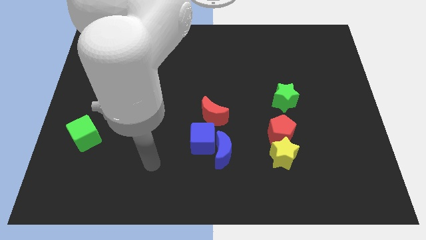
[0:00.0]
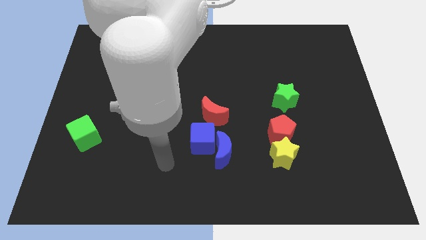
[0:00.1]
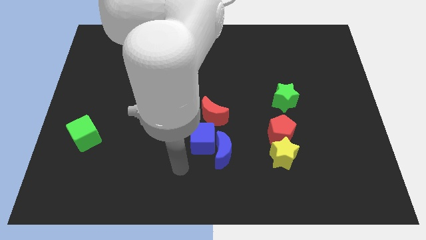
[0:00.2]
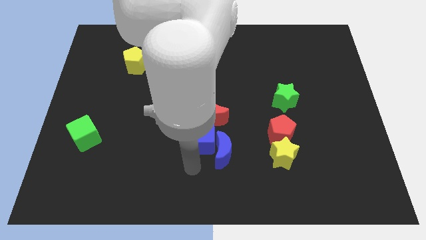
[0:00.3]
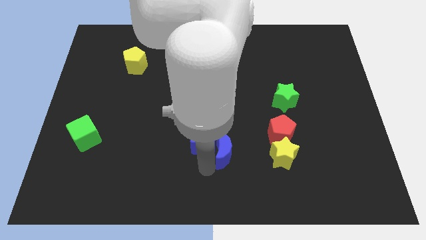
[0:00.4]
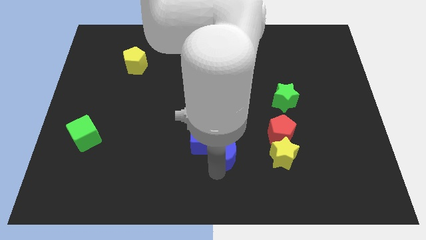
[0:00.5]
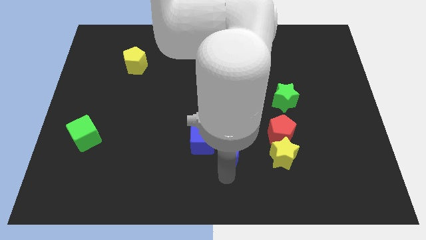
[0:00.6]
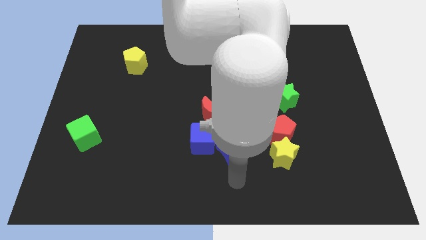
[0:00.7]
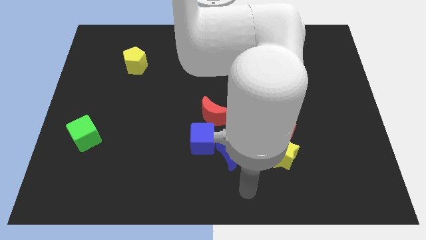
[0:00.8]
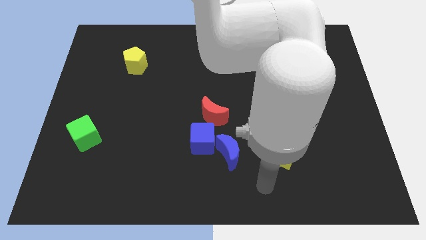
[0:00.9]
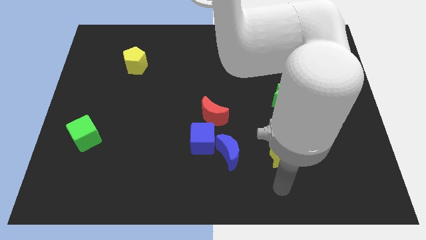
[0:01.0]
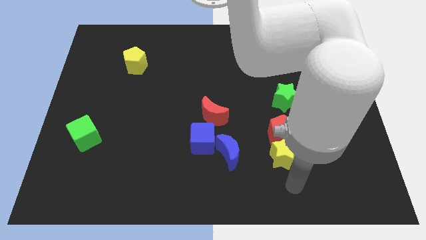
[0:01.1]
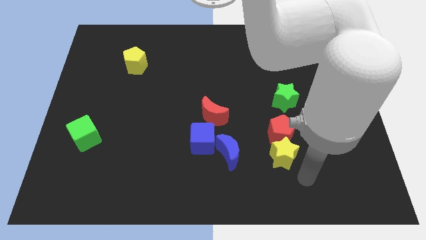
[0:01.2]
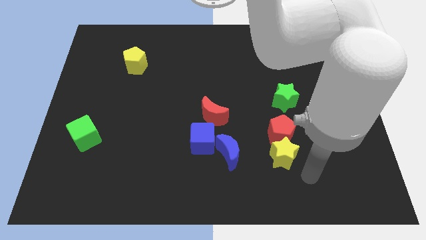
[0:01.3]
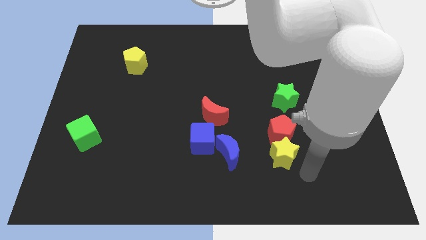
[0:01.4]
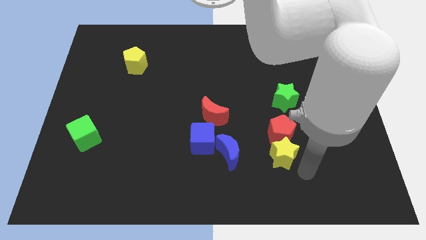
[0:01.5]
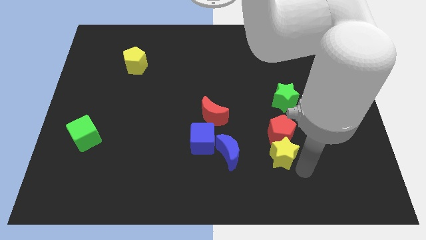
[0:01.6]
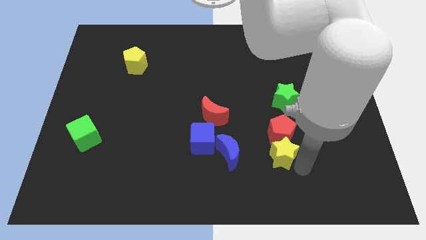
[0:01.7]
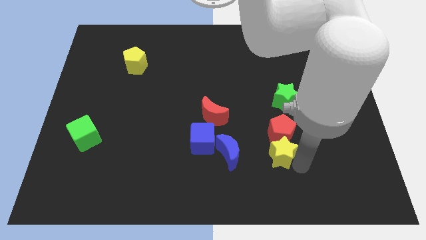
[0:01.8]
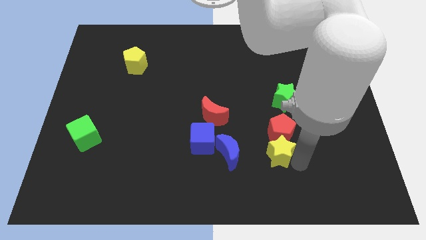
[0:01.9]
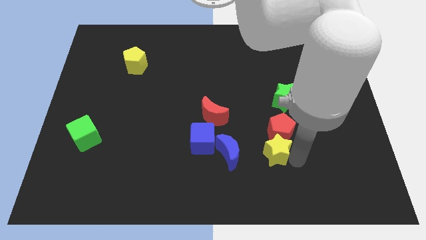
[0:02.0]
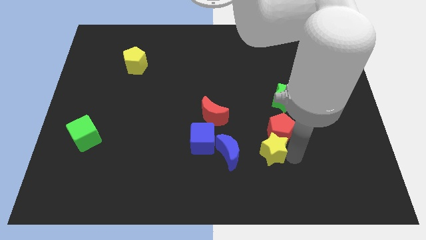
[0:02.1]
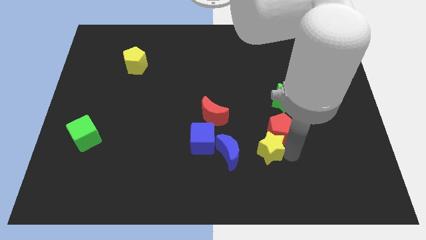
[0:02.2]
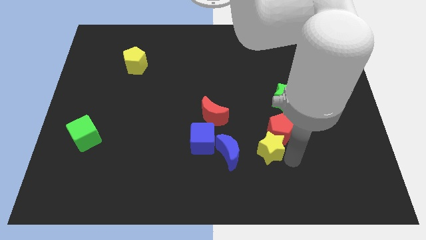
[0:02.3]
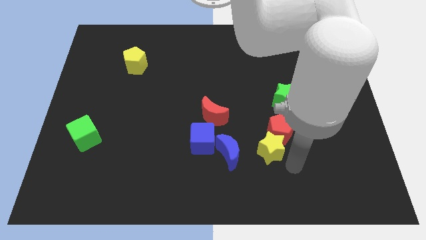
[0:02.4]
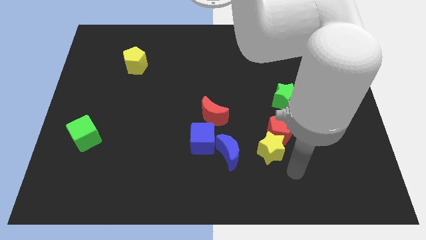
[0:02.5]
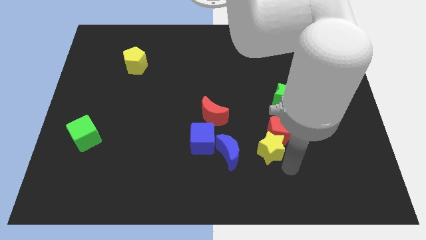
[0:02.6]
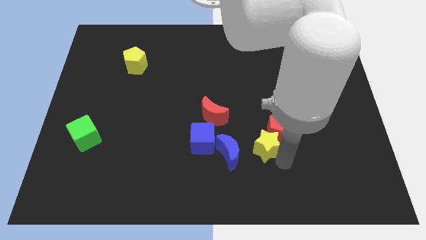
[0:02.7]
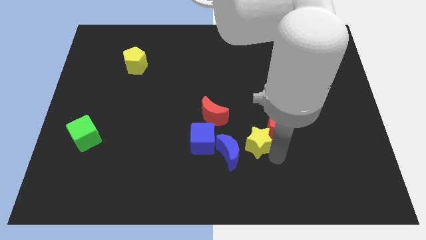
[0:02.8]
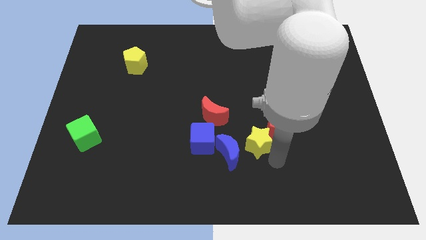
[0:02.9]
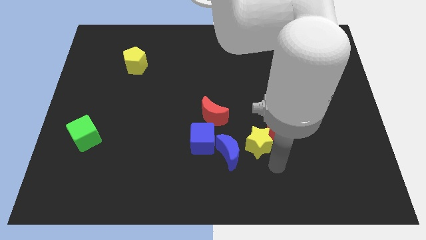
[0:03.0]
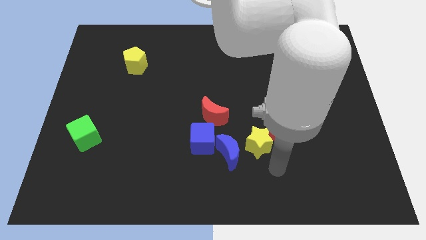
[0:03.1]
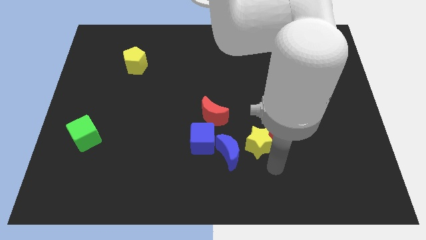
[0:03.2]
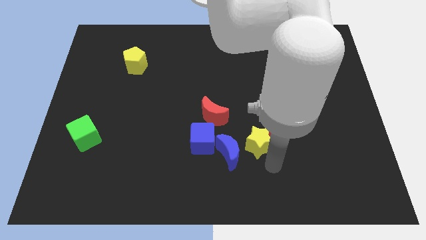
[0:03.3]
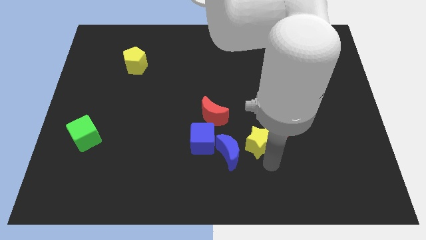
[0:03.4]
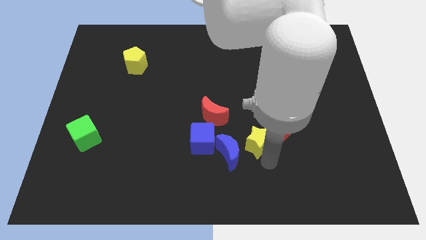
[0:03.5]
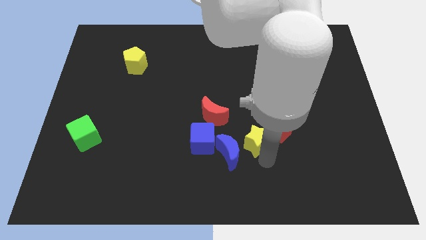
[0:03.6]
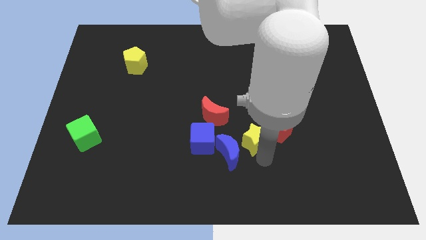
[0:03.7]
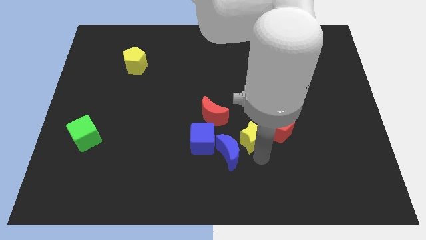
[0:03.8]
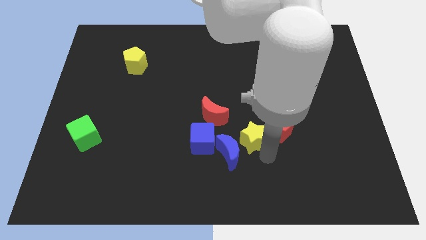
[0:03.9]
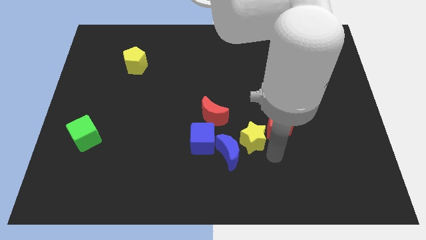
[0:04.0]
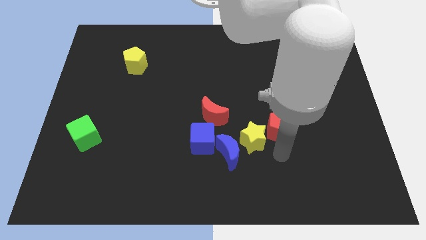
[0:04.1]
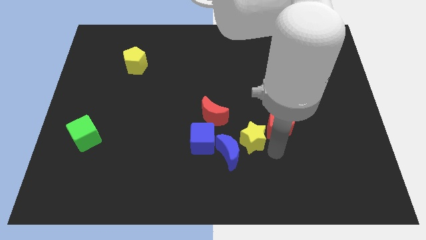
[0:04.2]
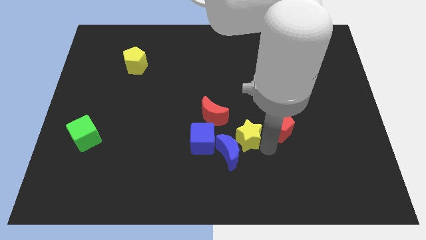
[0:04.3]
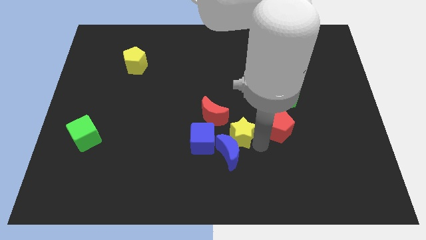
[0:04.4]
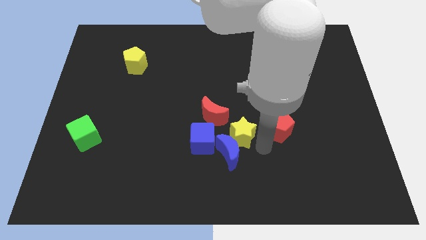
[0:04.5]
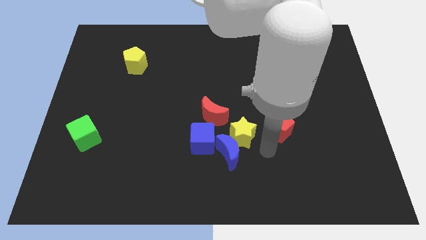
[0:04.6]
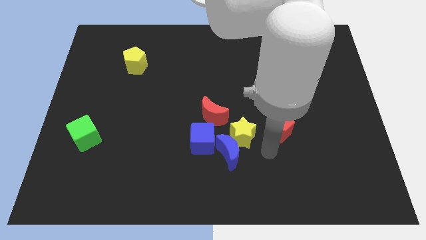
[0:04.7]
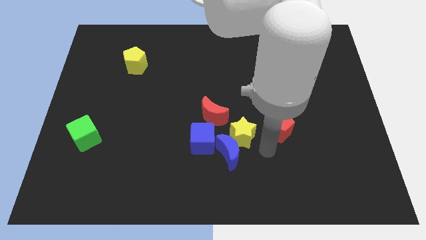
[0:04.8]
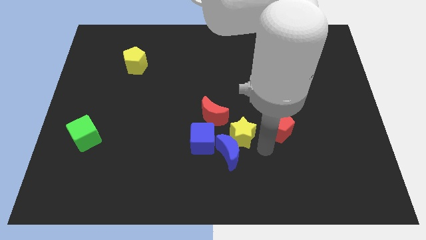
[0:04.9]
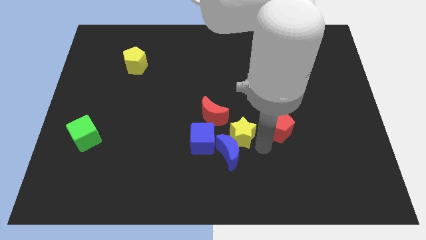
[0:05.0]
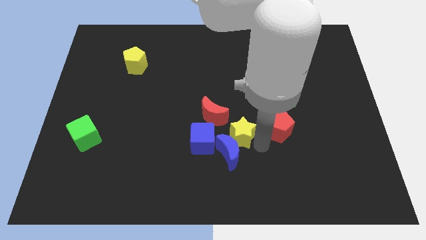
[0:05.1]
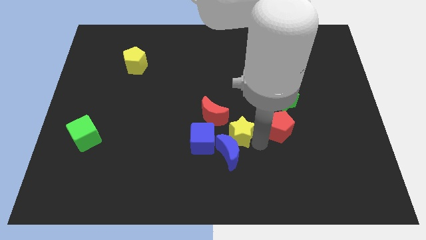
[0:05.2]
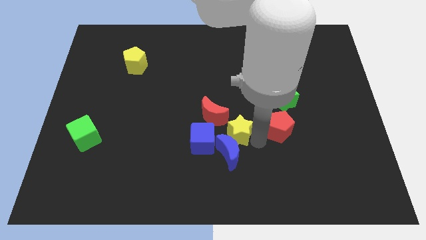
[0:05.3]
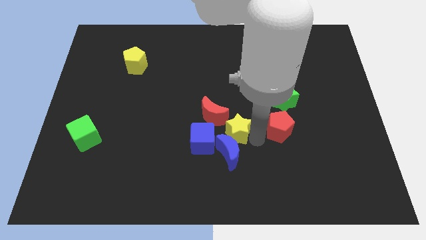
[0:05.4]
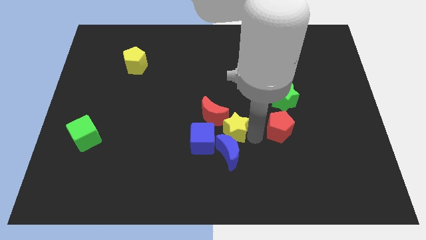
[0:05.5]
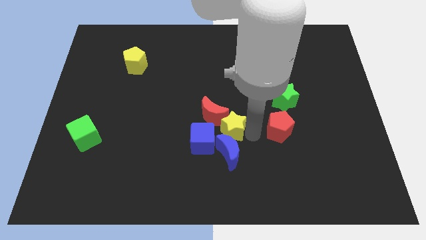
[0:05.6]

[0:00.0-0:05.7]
move the yellow star to the red moon

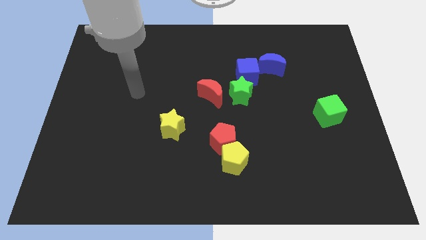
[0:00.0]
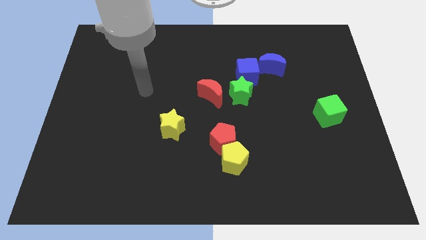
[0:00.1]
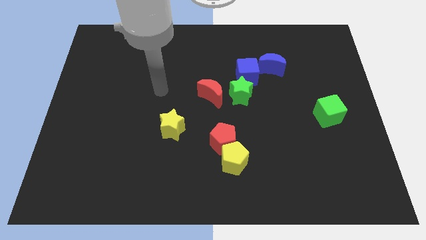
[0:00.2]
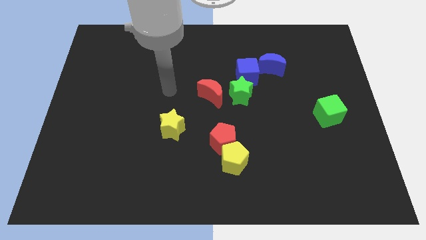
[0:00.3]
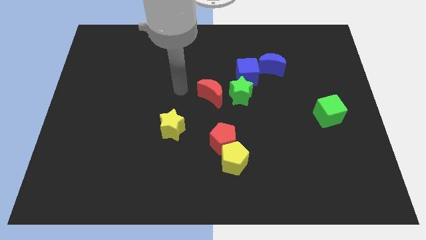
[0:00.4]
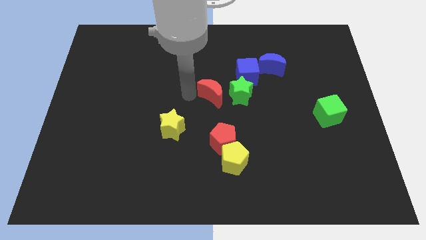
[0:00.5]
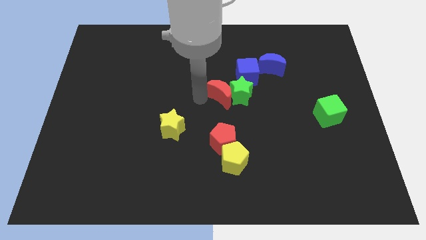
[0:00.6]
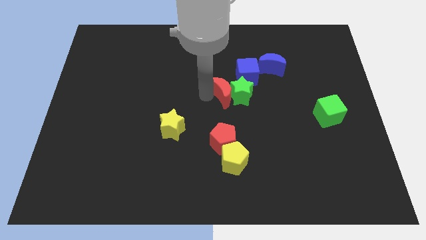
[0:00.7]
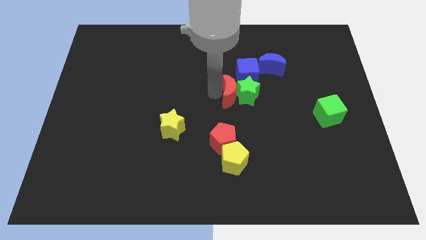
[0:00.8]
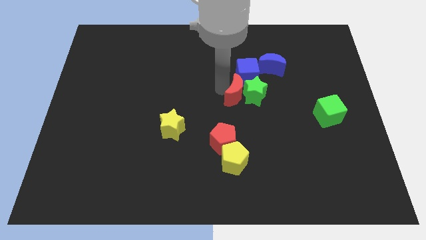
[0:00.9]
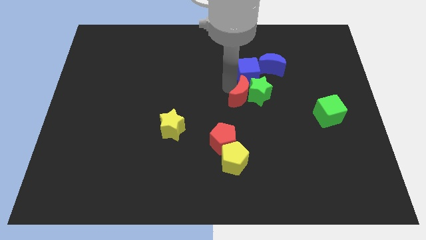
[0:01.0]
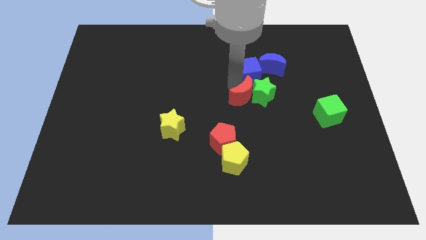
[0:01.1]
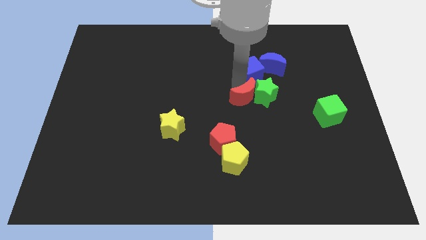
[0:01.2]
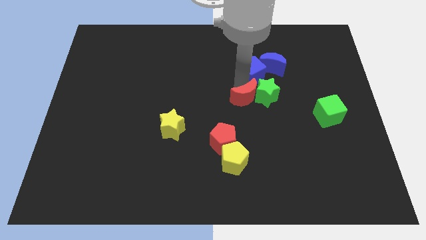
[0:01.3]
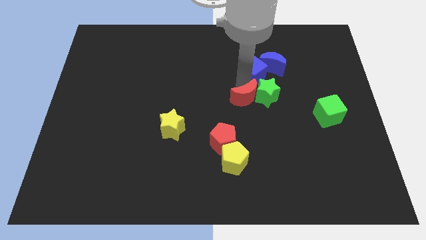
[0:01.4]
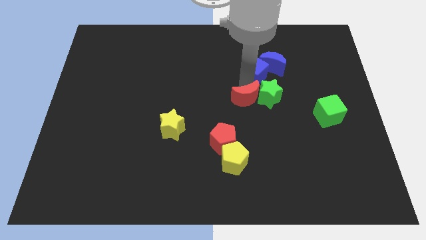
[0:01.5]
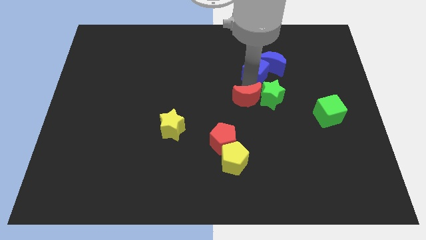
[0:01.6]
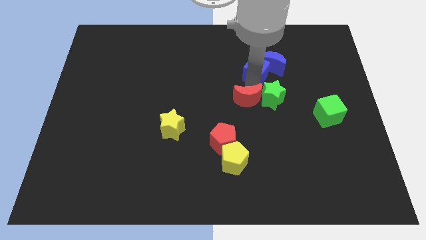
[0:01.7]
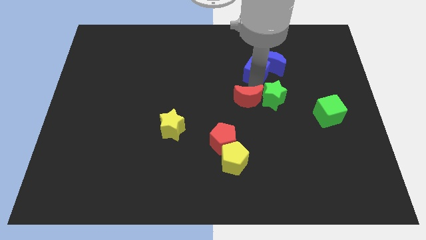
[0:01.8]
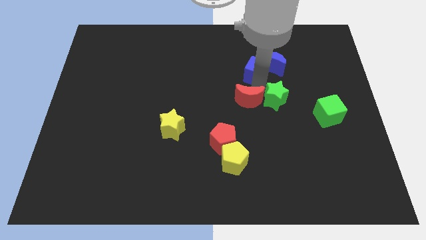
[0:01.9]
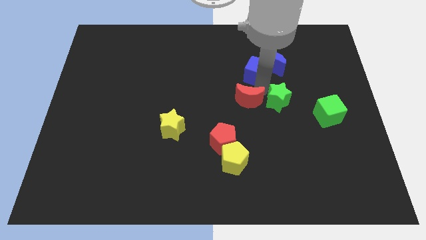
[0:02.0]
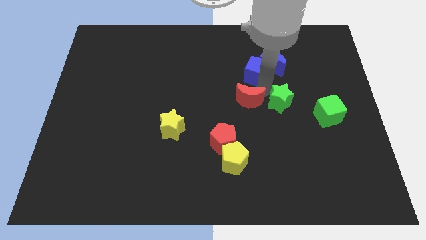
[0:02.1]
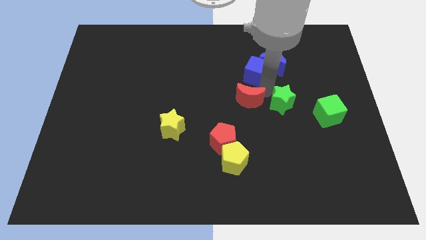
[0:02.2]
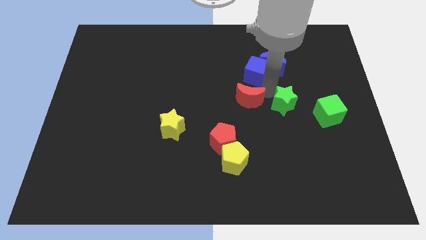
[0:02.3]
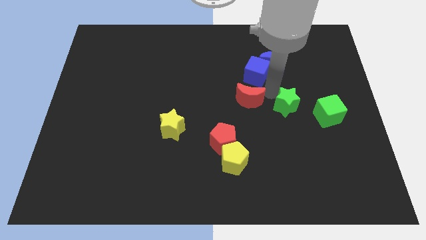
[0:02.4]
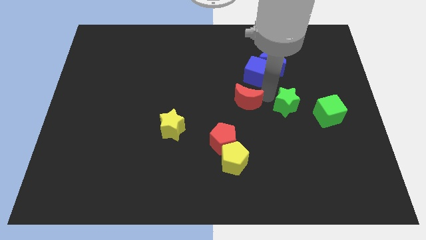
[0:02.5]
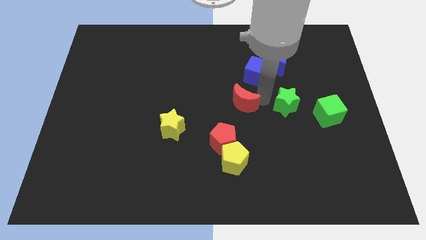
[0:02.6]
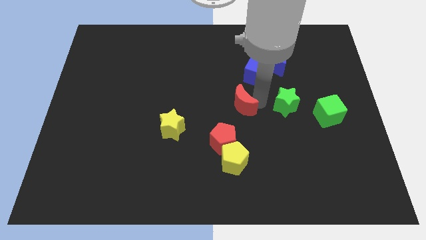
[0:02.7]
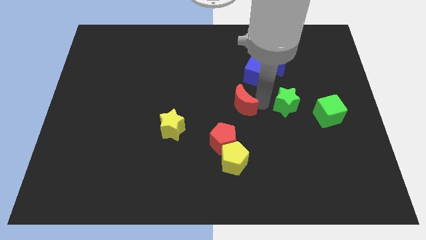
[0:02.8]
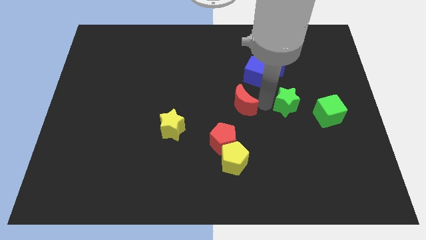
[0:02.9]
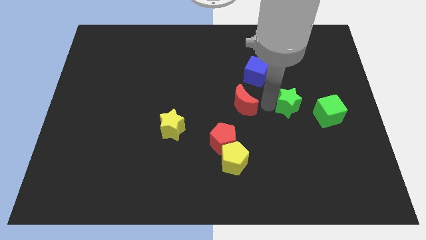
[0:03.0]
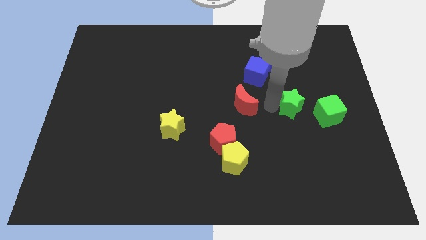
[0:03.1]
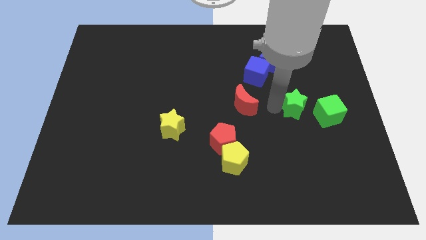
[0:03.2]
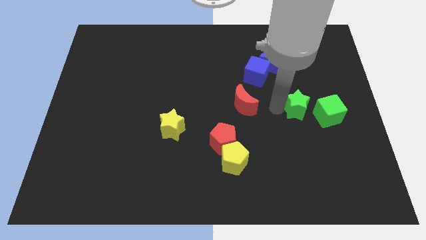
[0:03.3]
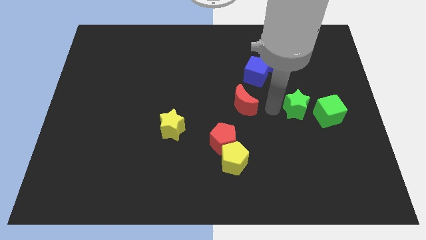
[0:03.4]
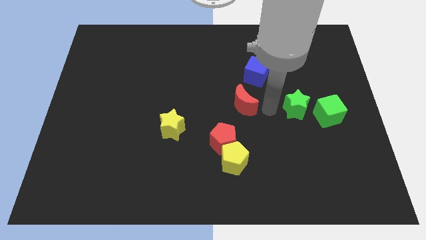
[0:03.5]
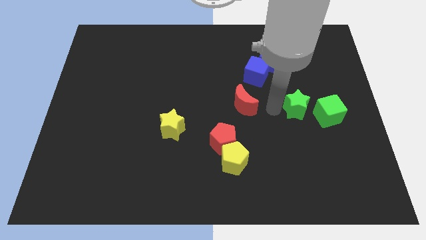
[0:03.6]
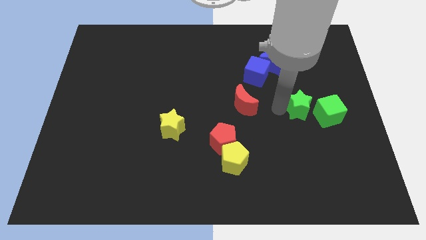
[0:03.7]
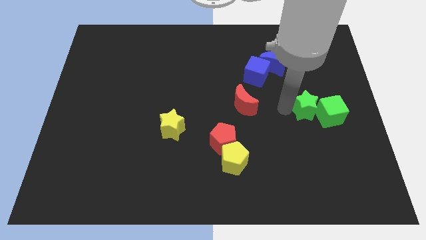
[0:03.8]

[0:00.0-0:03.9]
push the green star to the green cube
